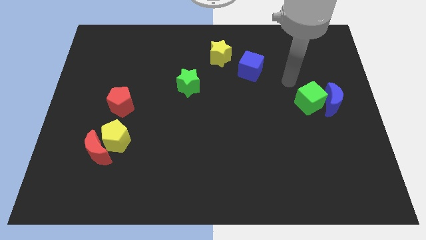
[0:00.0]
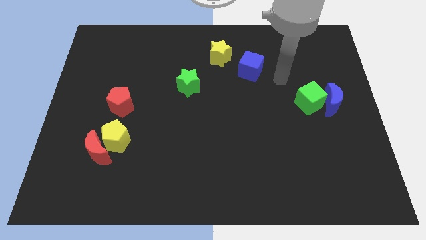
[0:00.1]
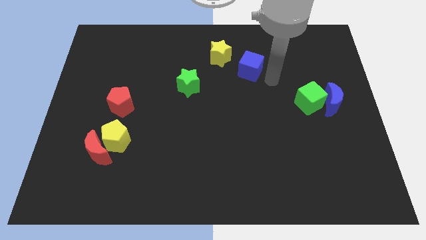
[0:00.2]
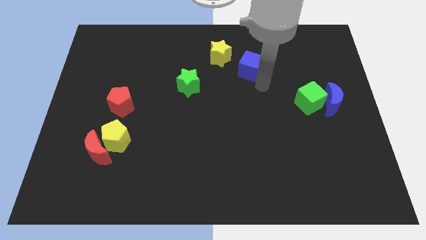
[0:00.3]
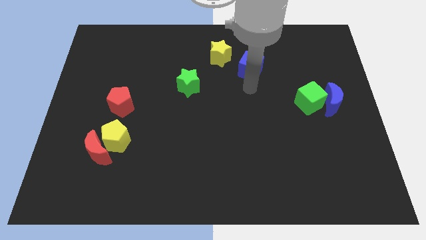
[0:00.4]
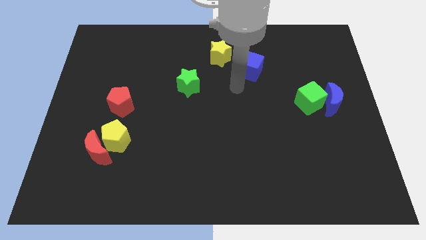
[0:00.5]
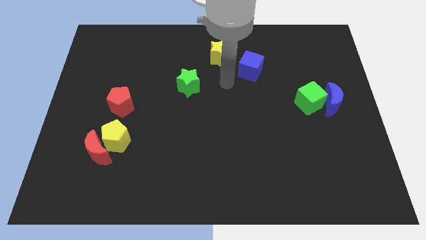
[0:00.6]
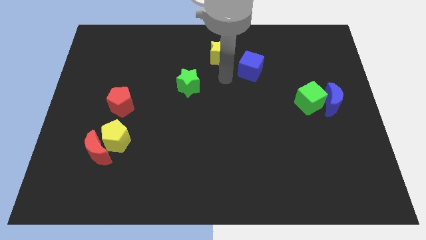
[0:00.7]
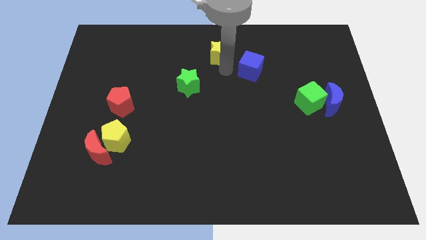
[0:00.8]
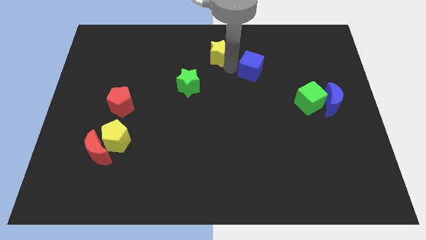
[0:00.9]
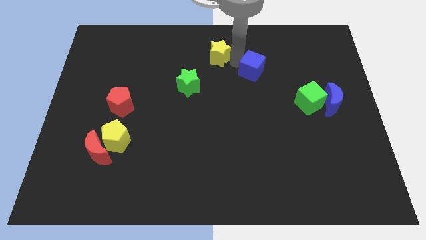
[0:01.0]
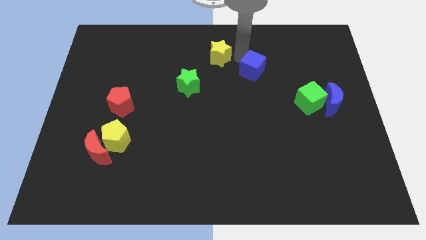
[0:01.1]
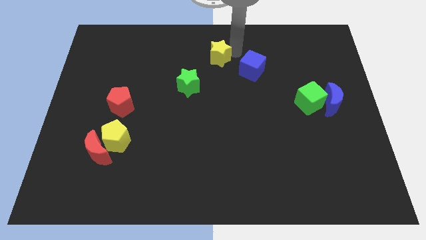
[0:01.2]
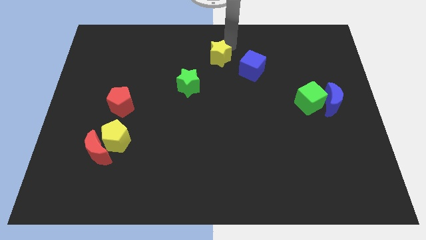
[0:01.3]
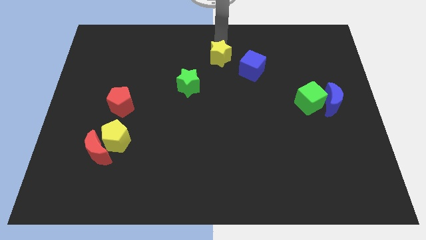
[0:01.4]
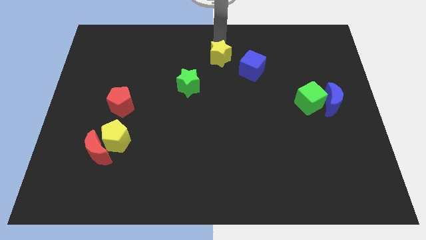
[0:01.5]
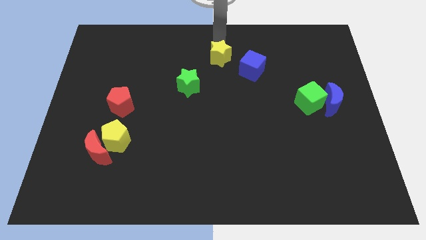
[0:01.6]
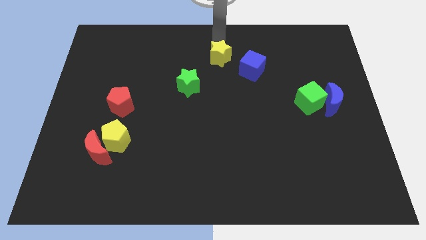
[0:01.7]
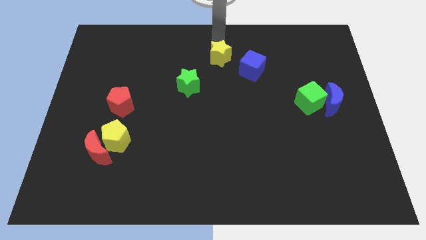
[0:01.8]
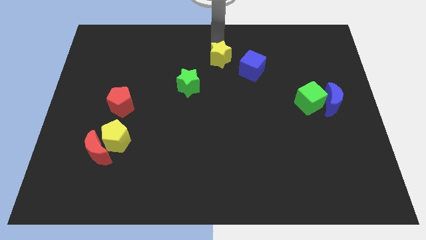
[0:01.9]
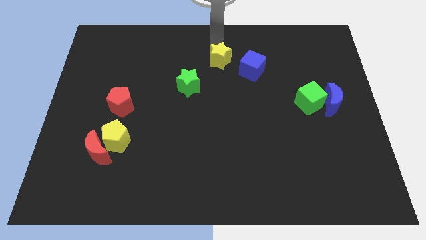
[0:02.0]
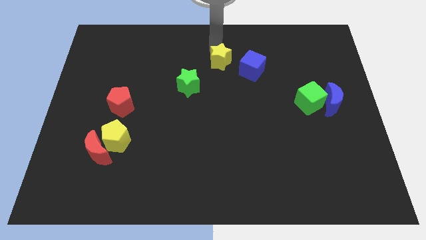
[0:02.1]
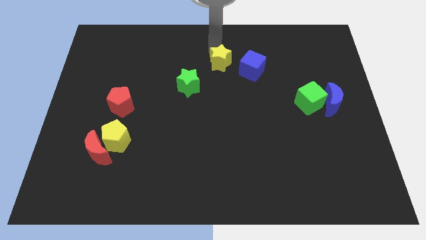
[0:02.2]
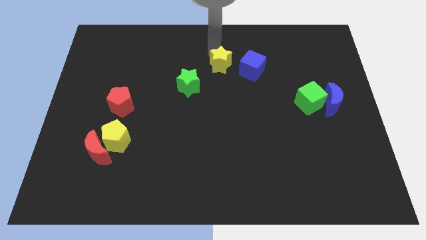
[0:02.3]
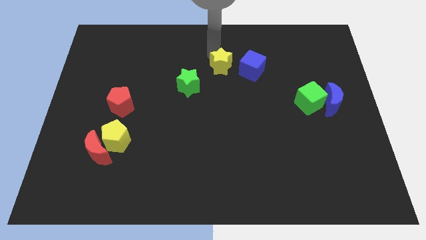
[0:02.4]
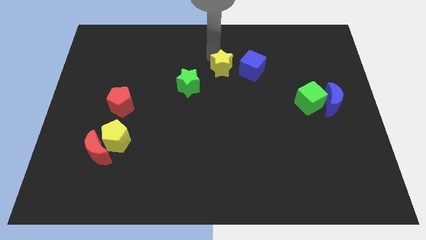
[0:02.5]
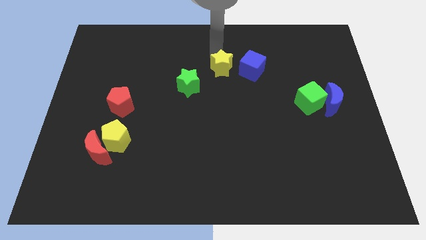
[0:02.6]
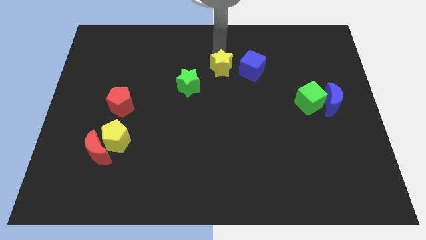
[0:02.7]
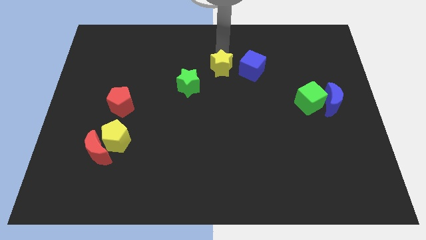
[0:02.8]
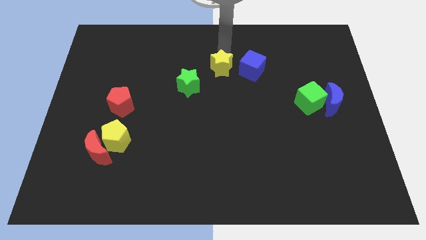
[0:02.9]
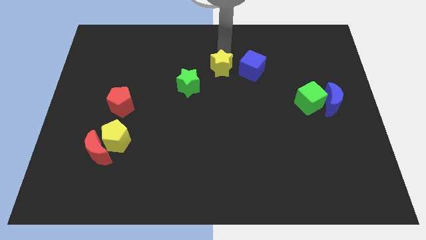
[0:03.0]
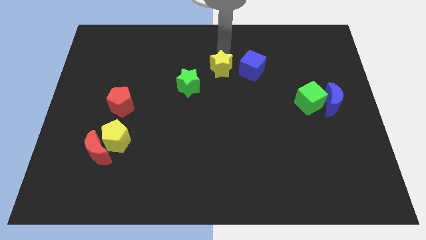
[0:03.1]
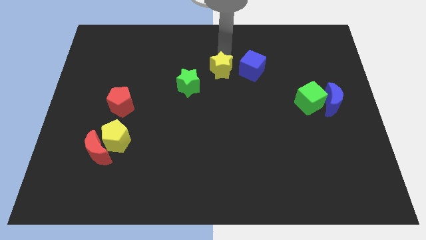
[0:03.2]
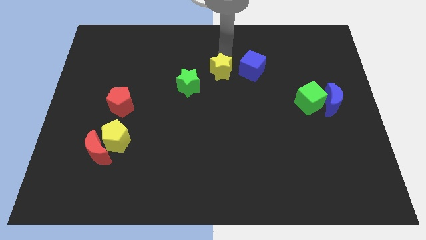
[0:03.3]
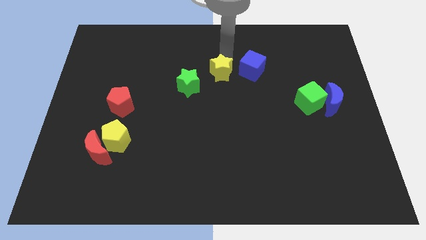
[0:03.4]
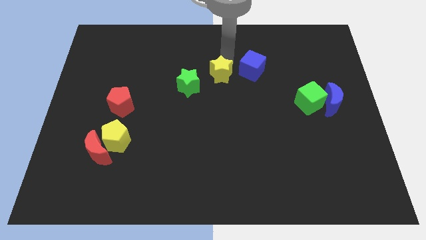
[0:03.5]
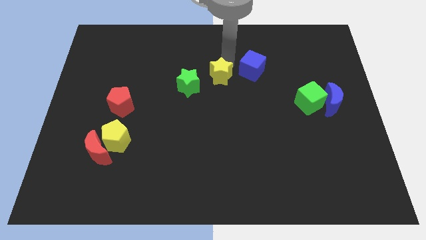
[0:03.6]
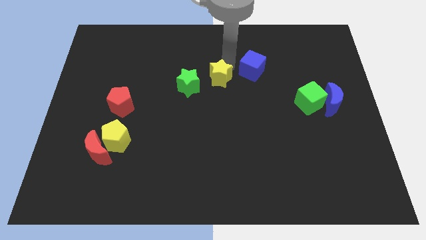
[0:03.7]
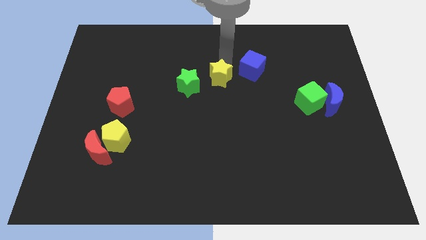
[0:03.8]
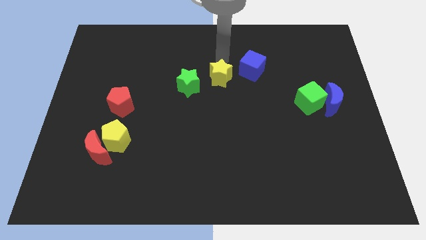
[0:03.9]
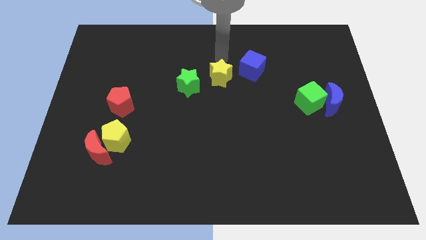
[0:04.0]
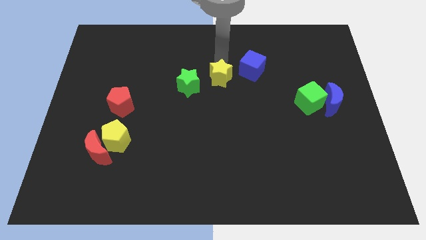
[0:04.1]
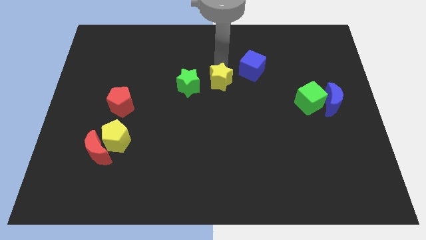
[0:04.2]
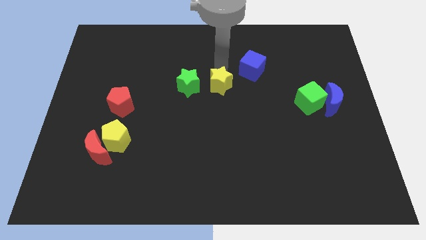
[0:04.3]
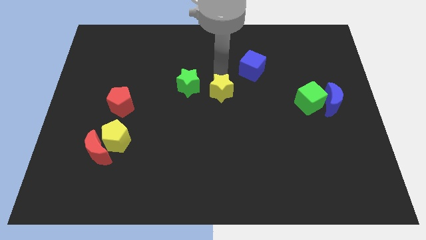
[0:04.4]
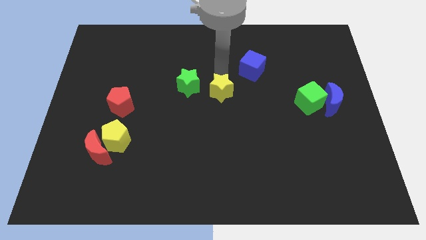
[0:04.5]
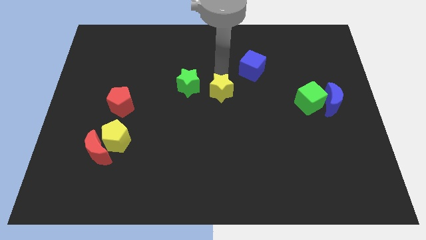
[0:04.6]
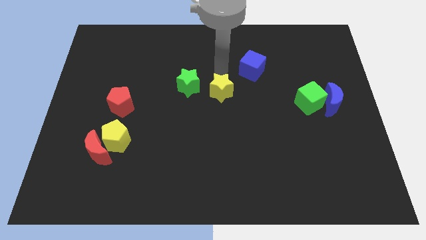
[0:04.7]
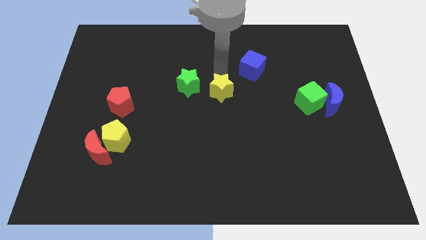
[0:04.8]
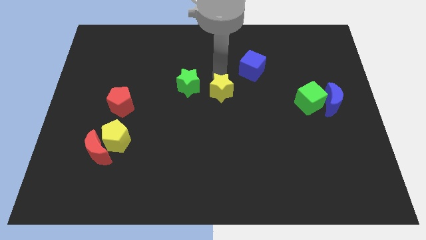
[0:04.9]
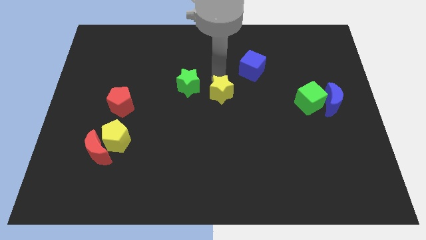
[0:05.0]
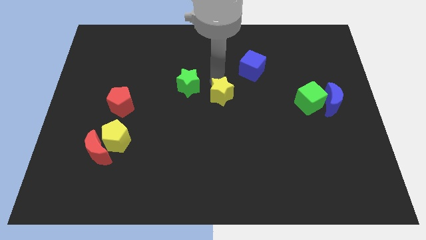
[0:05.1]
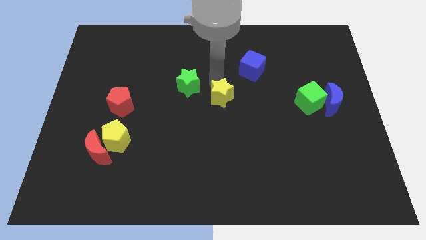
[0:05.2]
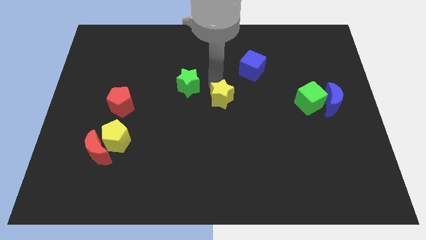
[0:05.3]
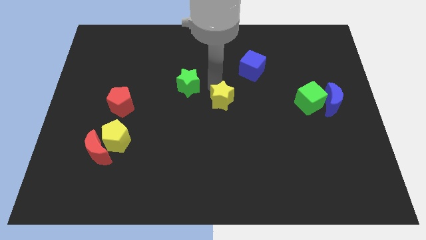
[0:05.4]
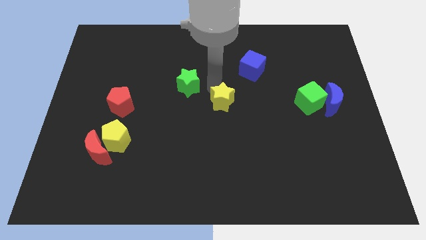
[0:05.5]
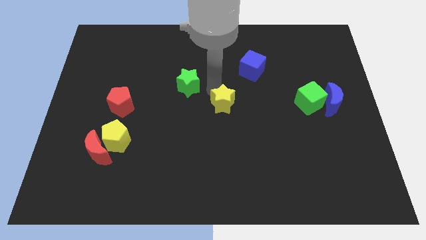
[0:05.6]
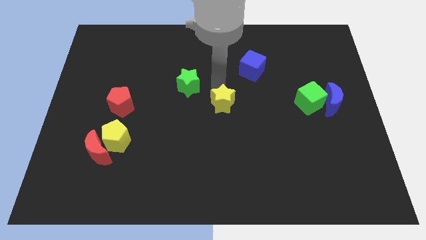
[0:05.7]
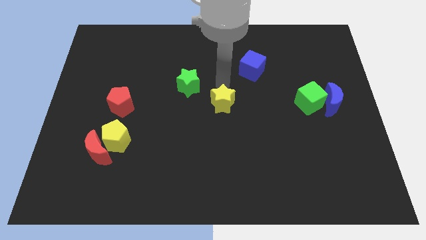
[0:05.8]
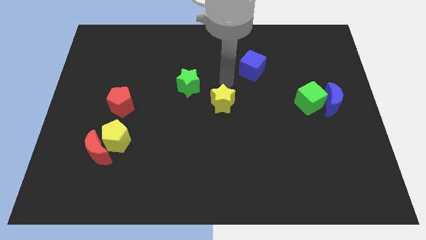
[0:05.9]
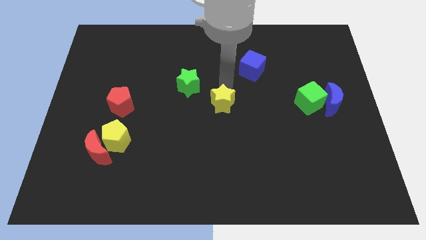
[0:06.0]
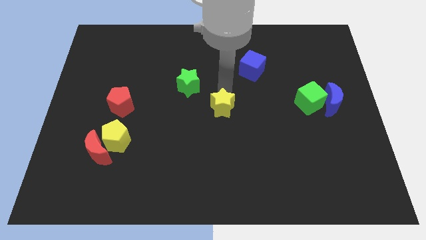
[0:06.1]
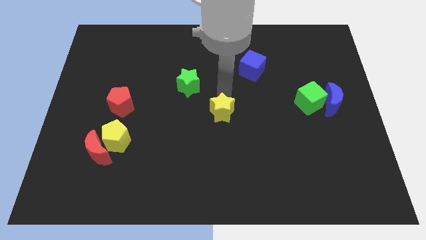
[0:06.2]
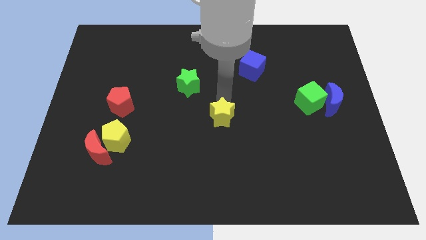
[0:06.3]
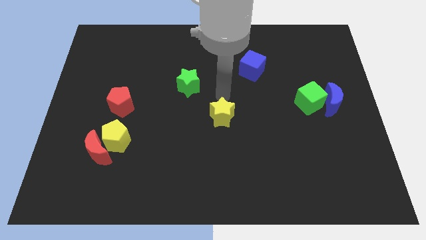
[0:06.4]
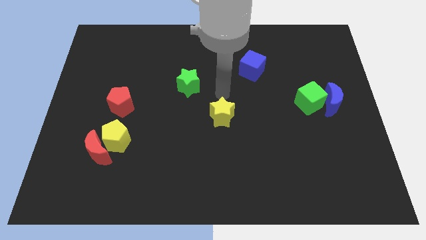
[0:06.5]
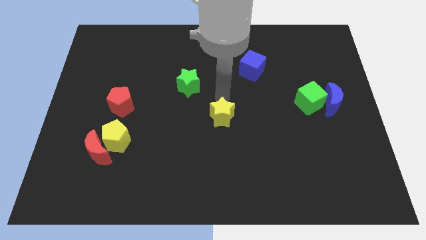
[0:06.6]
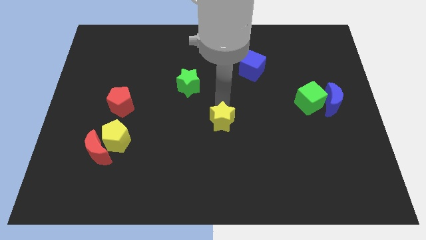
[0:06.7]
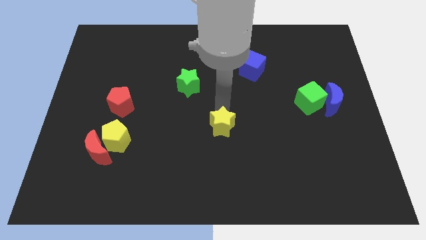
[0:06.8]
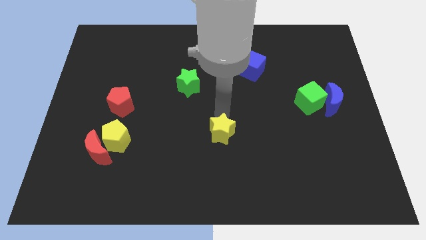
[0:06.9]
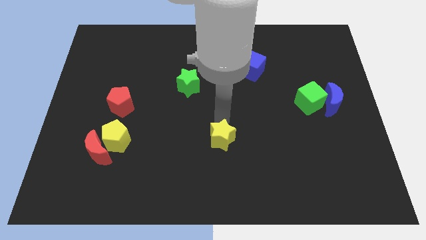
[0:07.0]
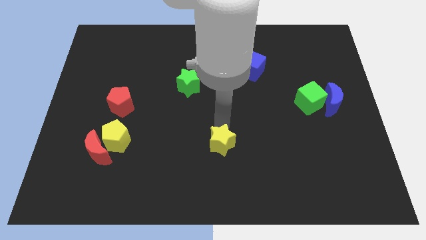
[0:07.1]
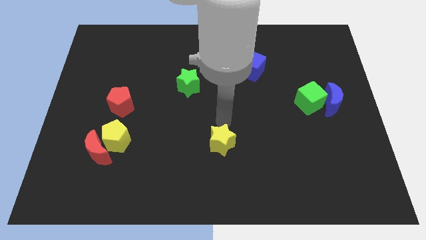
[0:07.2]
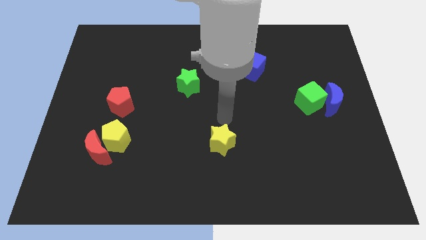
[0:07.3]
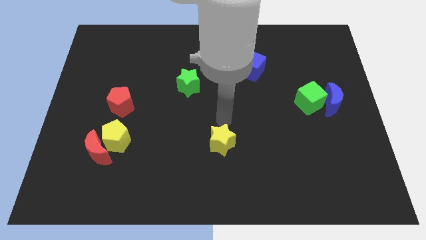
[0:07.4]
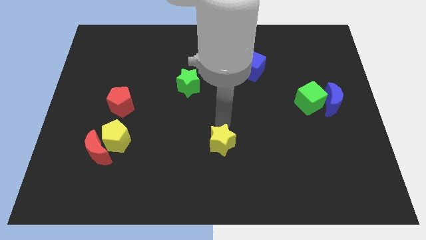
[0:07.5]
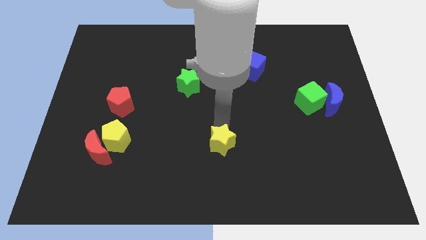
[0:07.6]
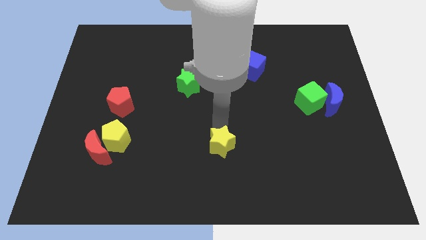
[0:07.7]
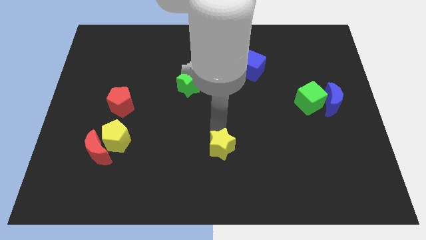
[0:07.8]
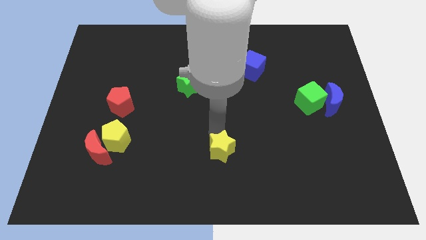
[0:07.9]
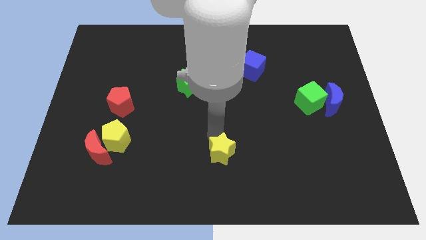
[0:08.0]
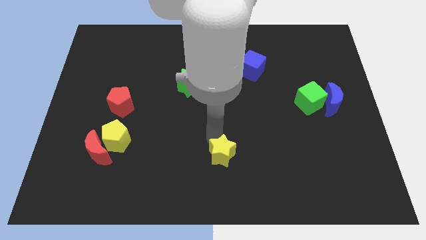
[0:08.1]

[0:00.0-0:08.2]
move the yellow star to the bottom
